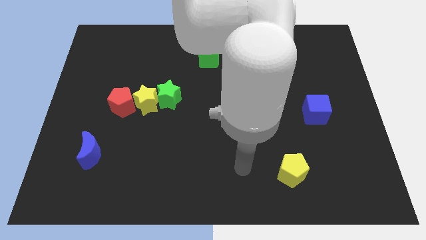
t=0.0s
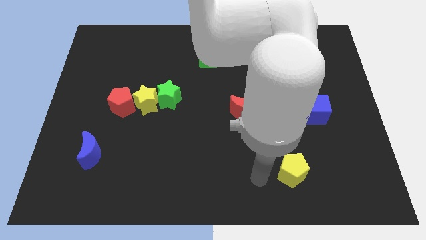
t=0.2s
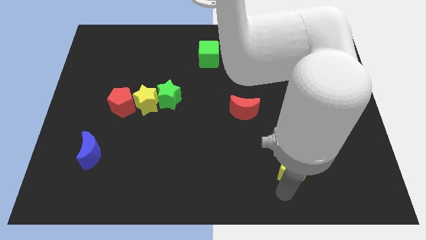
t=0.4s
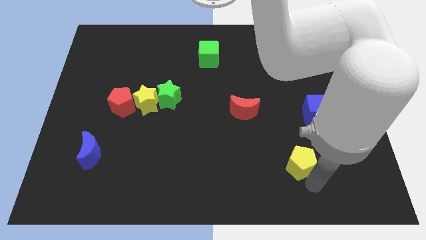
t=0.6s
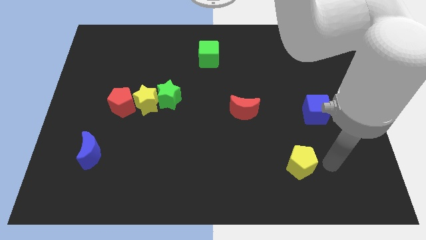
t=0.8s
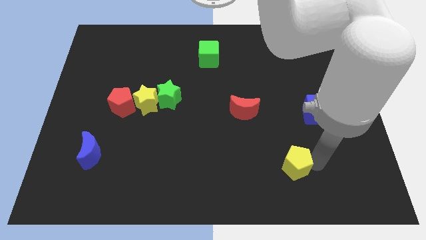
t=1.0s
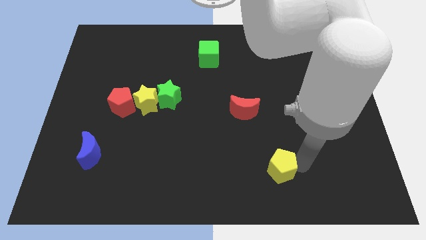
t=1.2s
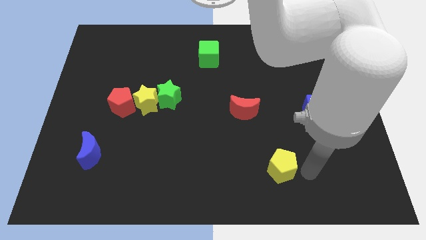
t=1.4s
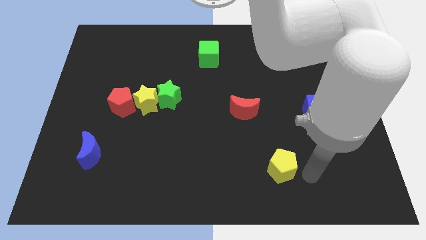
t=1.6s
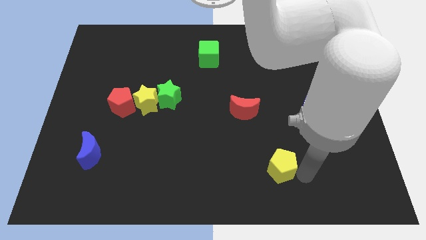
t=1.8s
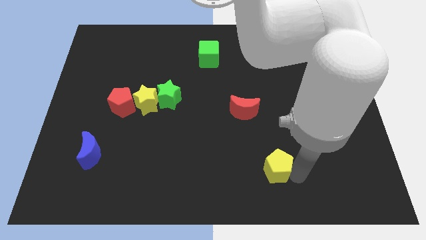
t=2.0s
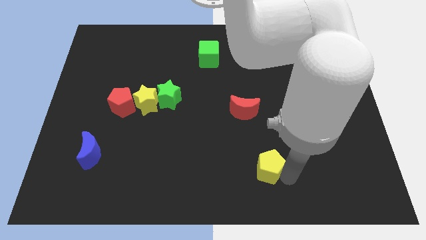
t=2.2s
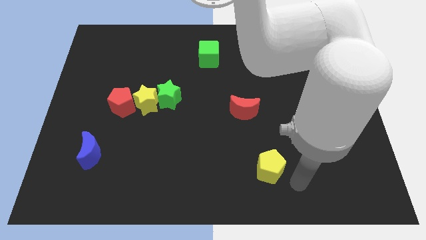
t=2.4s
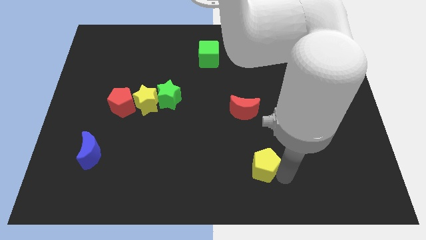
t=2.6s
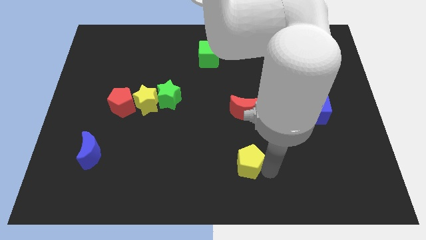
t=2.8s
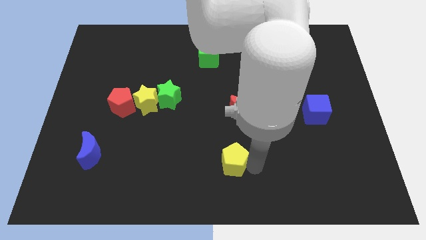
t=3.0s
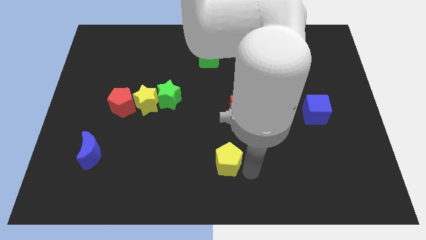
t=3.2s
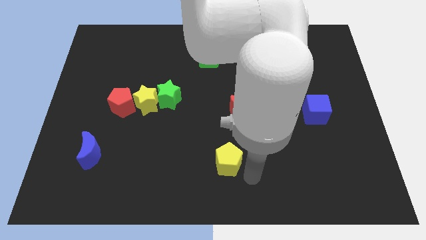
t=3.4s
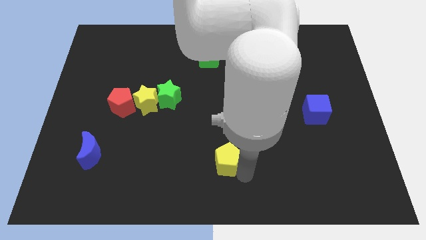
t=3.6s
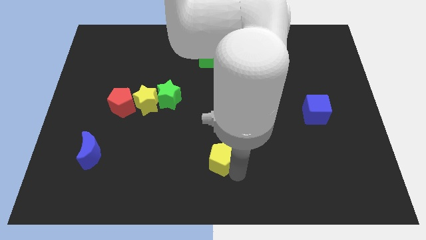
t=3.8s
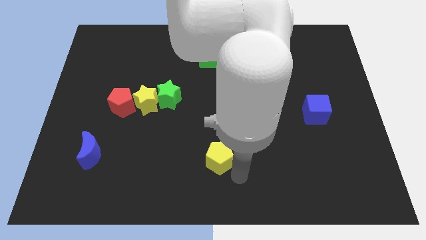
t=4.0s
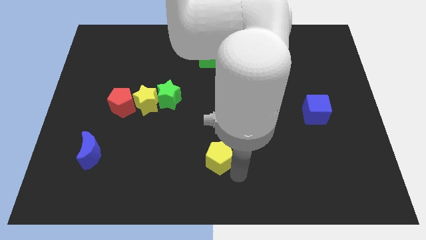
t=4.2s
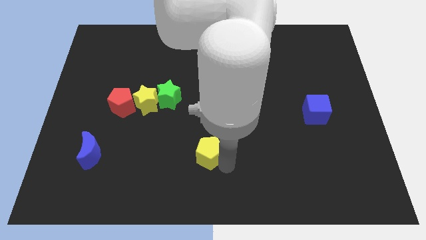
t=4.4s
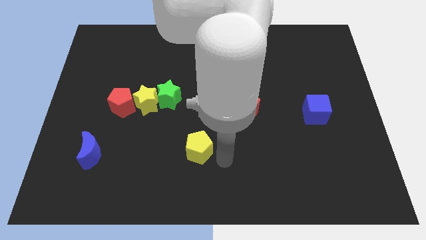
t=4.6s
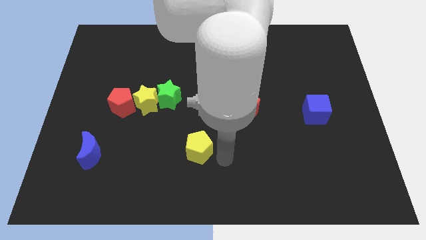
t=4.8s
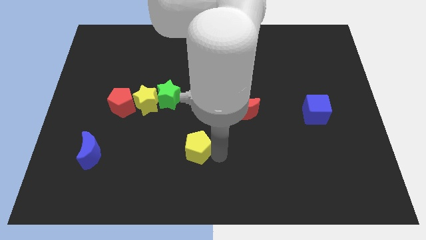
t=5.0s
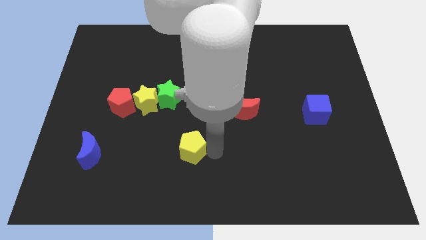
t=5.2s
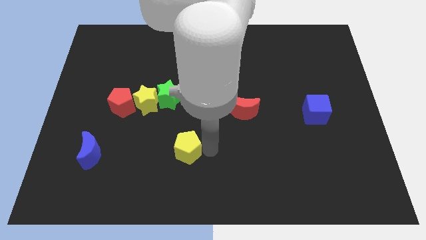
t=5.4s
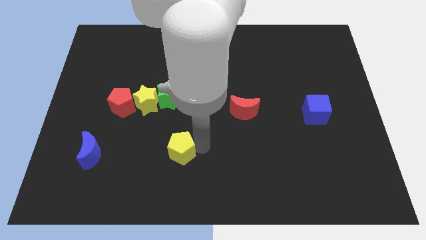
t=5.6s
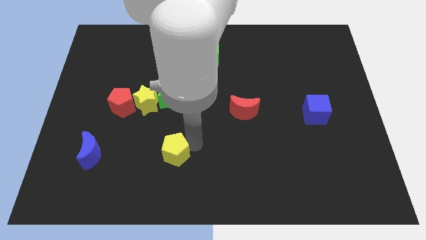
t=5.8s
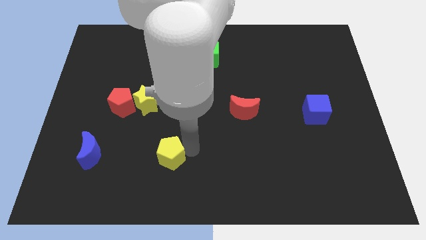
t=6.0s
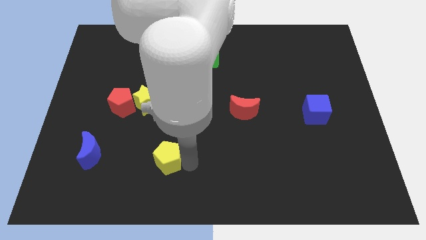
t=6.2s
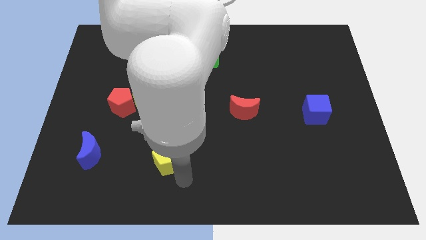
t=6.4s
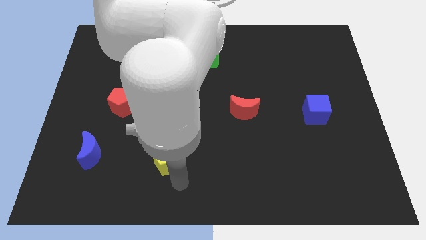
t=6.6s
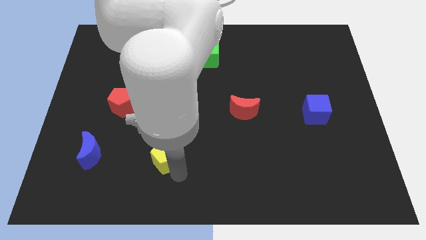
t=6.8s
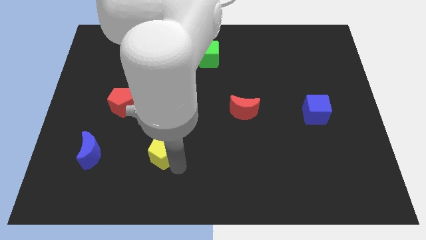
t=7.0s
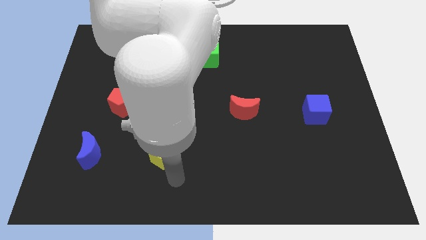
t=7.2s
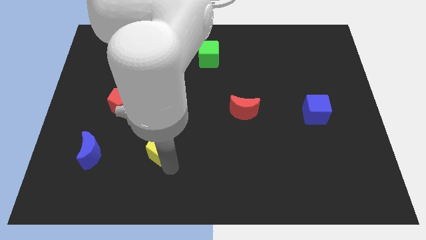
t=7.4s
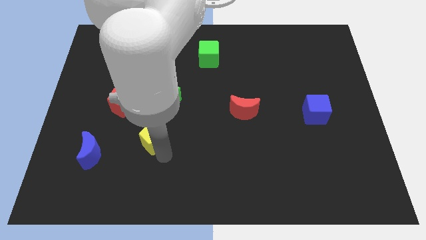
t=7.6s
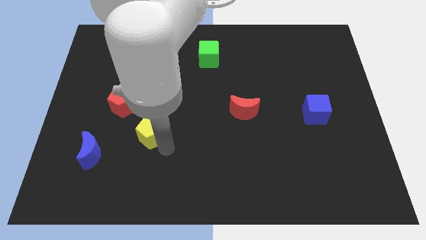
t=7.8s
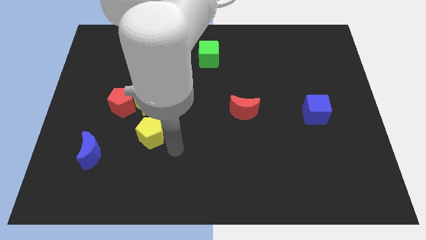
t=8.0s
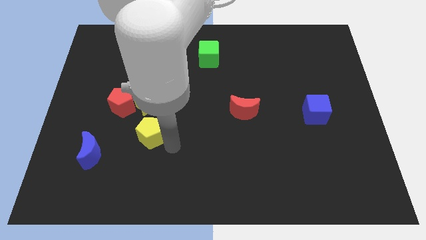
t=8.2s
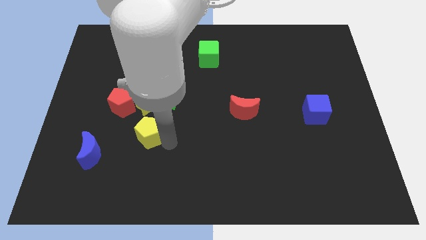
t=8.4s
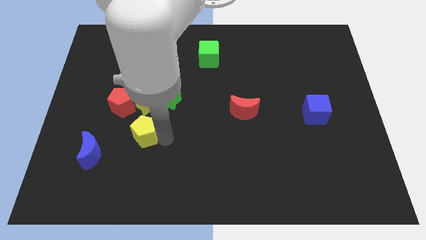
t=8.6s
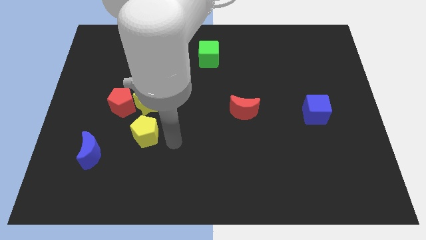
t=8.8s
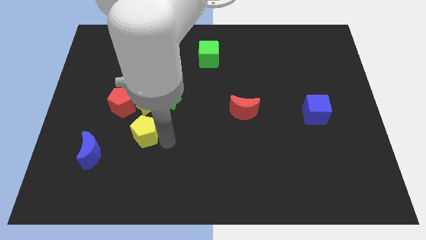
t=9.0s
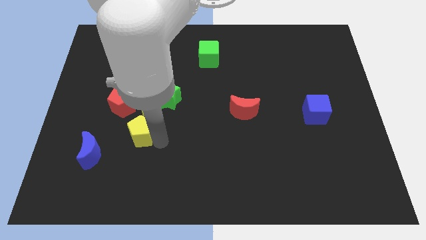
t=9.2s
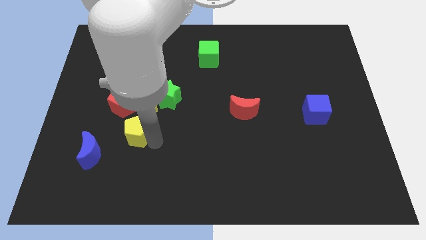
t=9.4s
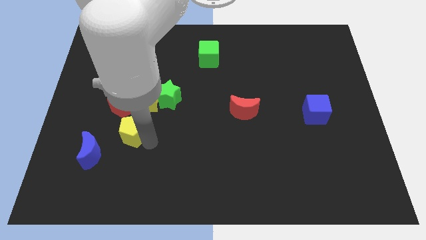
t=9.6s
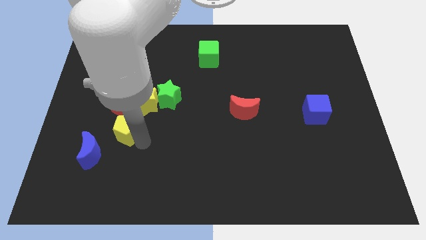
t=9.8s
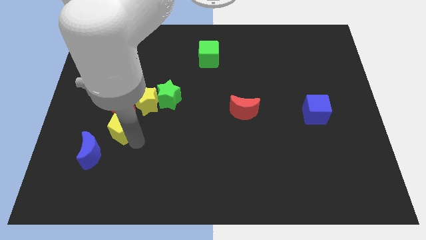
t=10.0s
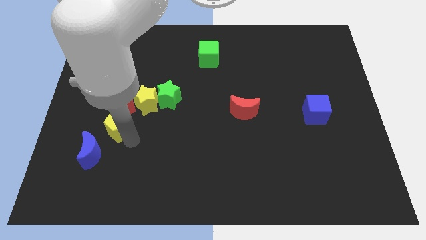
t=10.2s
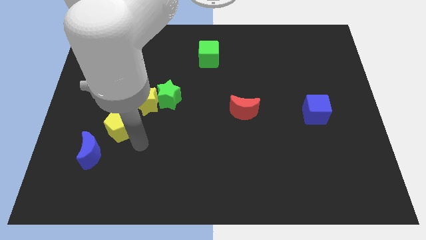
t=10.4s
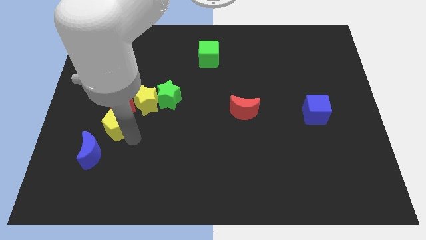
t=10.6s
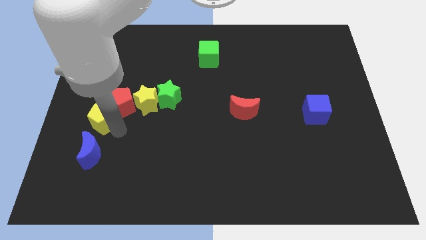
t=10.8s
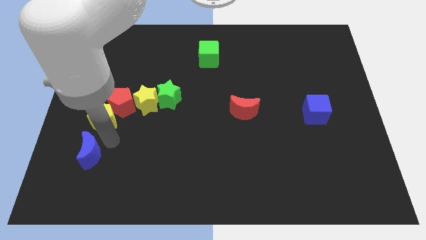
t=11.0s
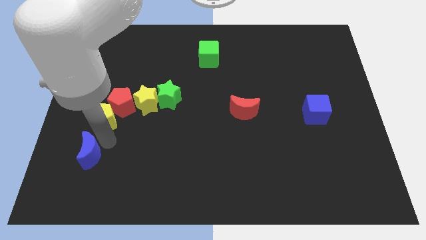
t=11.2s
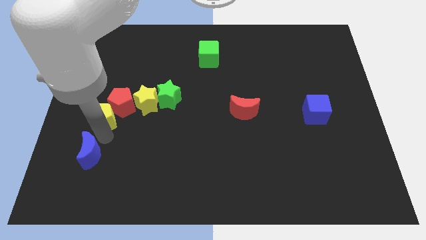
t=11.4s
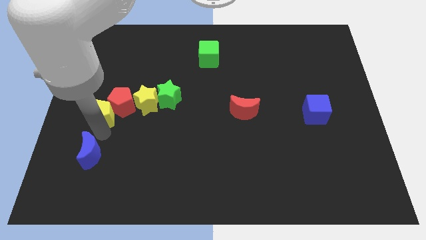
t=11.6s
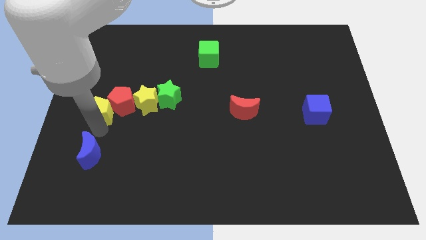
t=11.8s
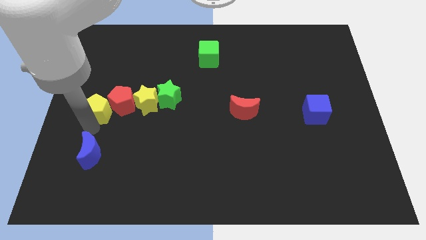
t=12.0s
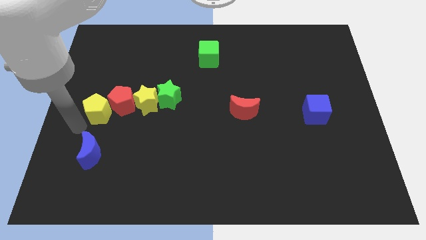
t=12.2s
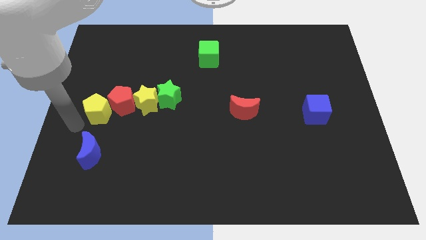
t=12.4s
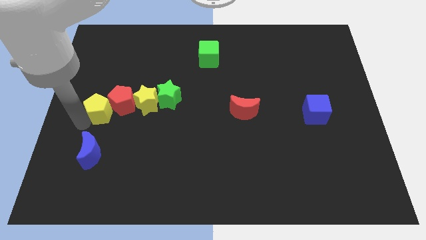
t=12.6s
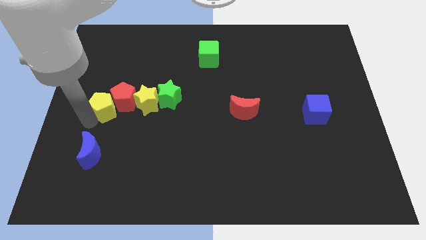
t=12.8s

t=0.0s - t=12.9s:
slide the yellow pentagon to the left side of the green star
